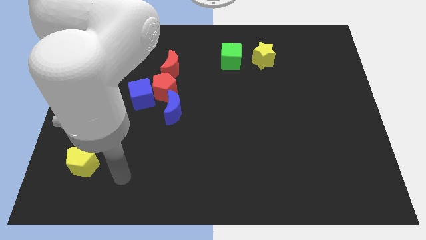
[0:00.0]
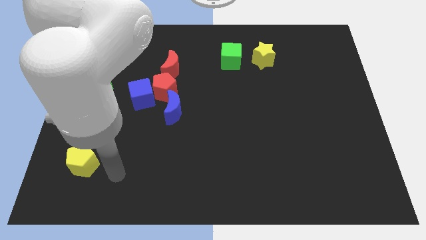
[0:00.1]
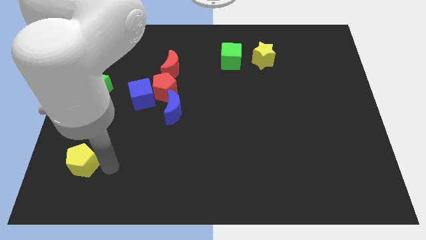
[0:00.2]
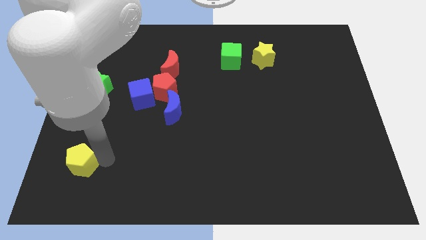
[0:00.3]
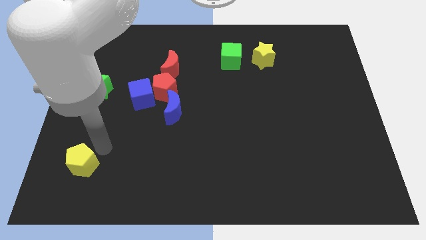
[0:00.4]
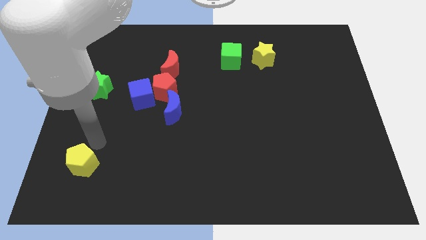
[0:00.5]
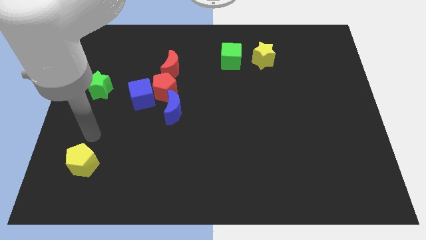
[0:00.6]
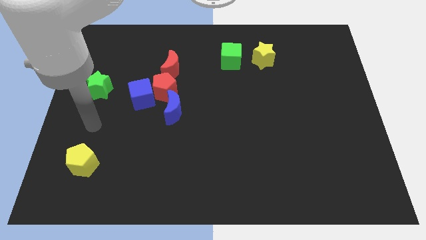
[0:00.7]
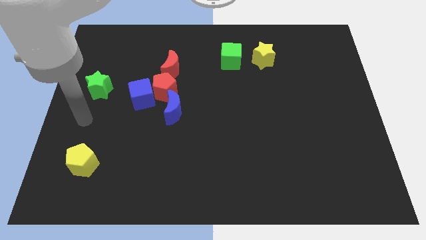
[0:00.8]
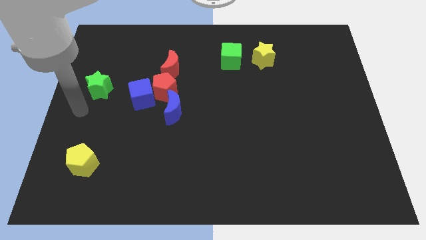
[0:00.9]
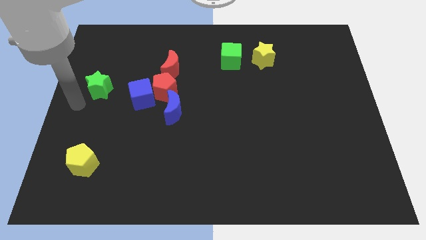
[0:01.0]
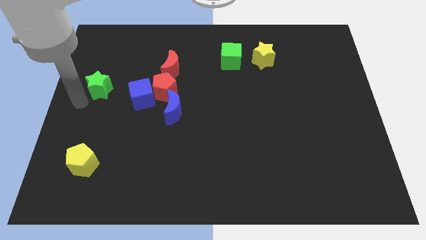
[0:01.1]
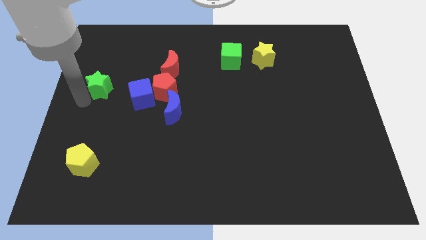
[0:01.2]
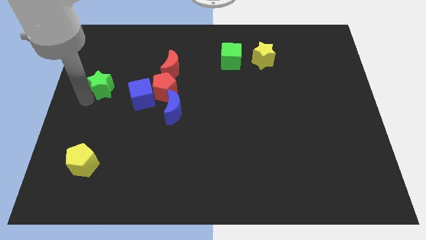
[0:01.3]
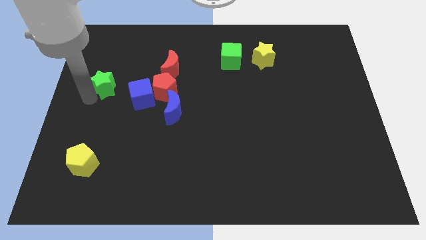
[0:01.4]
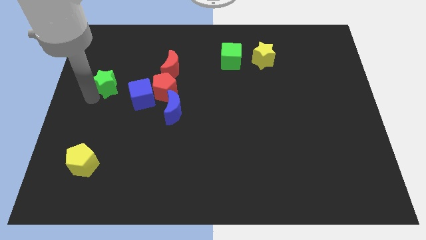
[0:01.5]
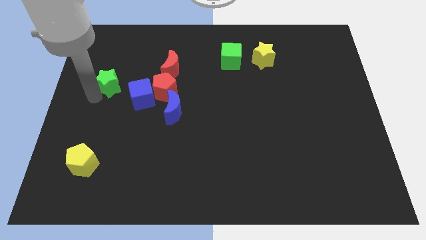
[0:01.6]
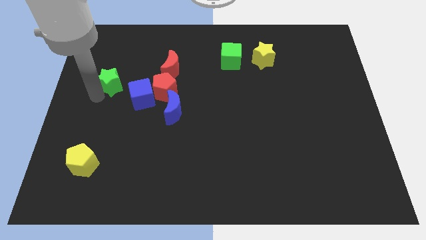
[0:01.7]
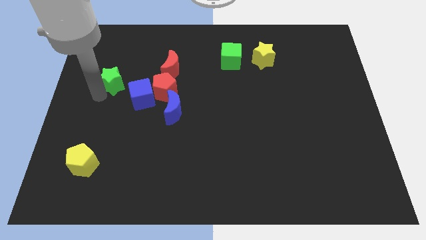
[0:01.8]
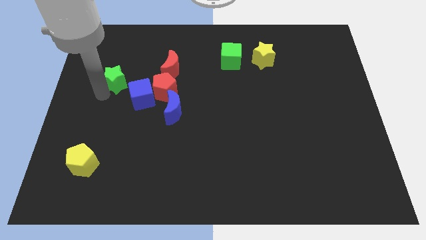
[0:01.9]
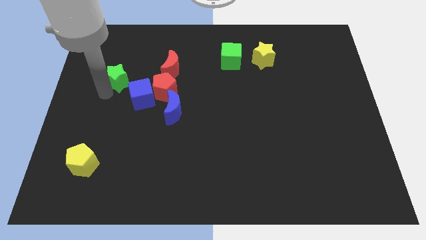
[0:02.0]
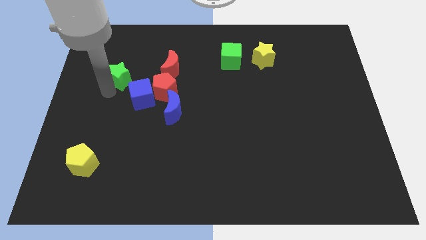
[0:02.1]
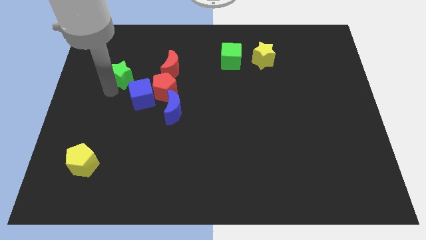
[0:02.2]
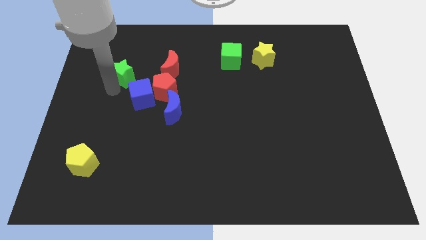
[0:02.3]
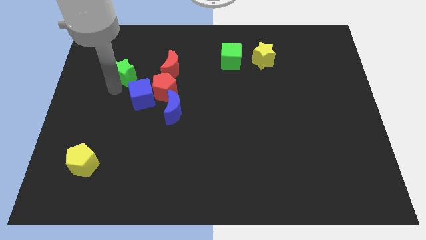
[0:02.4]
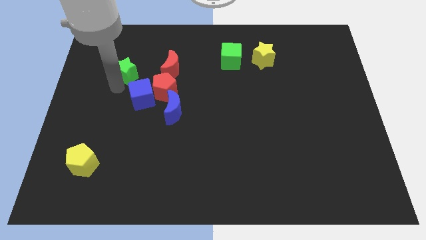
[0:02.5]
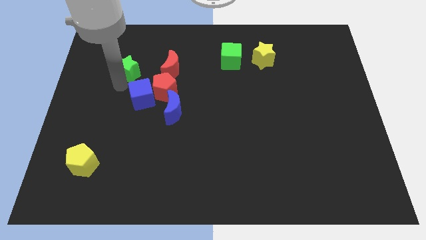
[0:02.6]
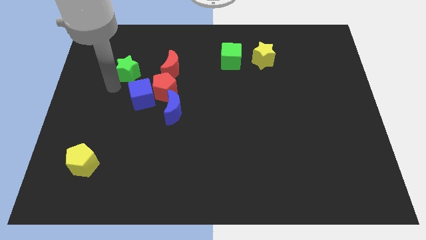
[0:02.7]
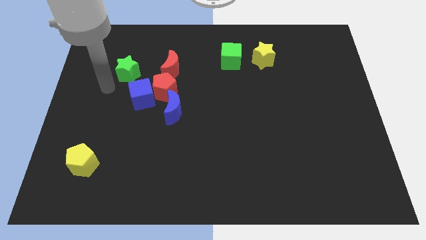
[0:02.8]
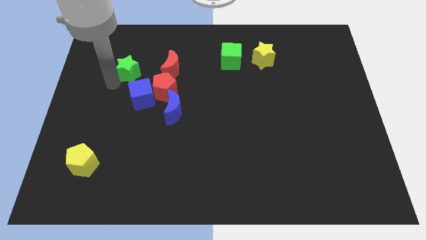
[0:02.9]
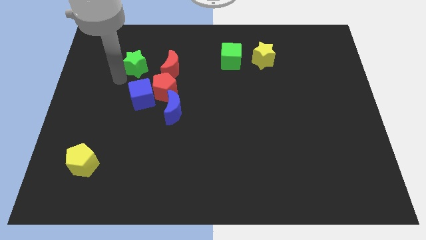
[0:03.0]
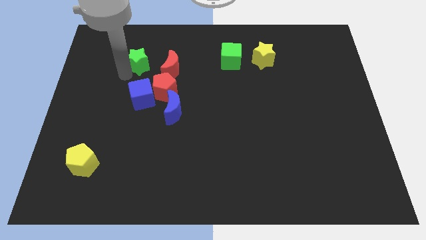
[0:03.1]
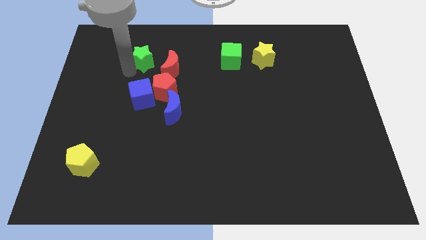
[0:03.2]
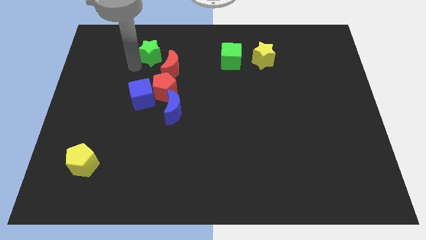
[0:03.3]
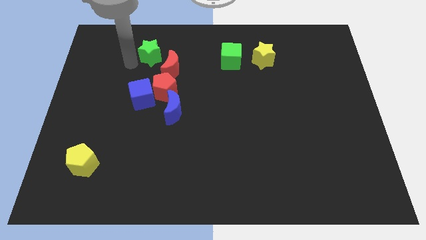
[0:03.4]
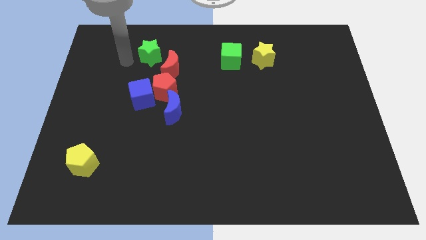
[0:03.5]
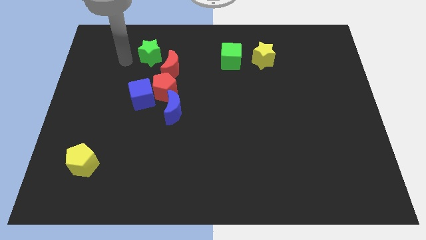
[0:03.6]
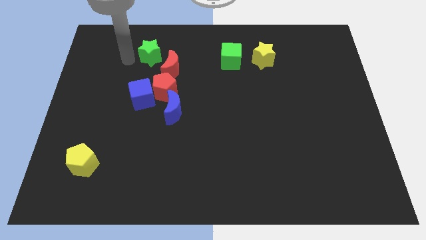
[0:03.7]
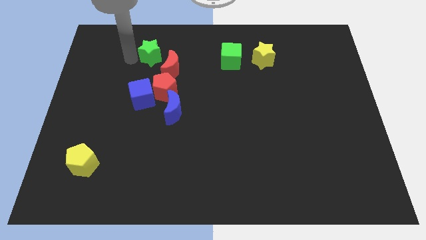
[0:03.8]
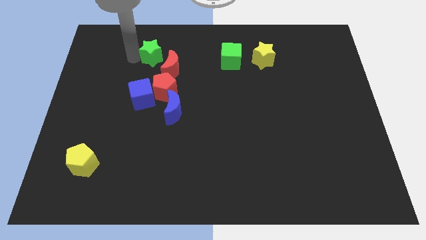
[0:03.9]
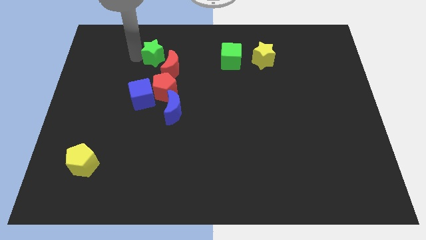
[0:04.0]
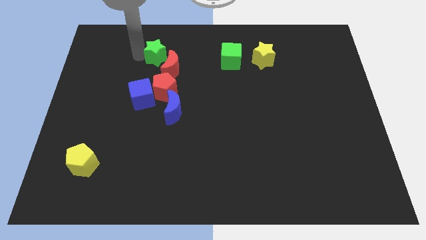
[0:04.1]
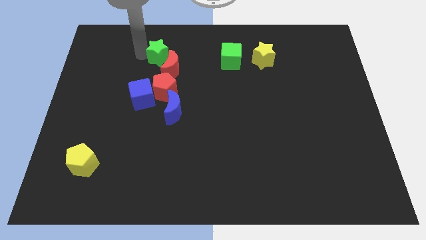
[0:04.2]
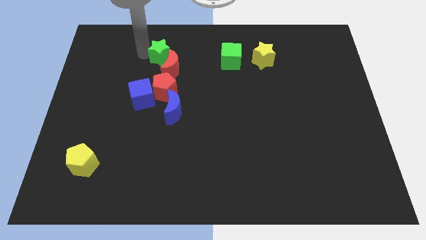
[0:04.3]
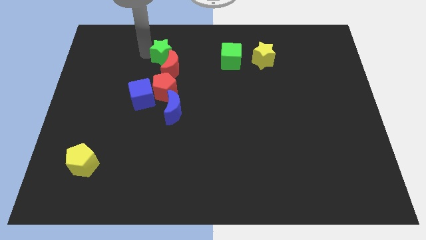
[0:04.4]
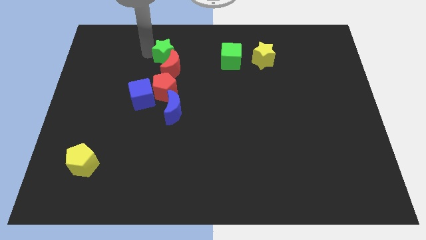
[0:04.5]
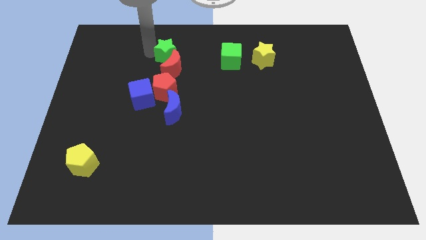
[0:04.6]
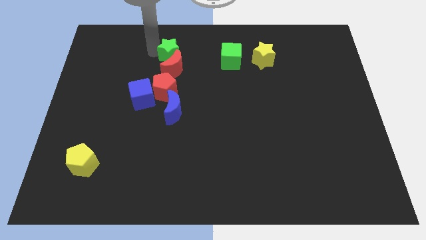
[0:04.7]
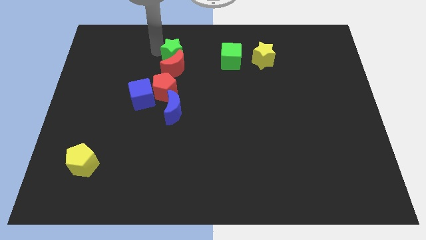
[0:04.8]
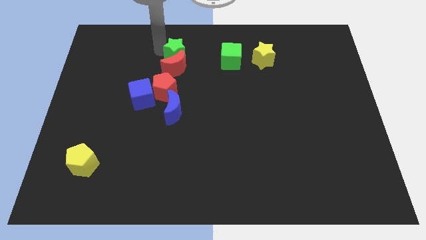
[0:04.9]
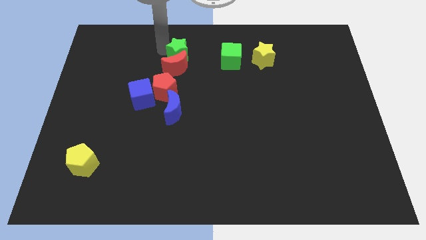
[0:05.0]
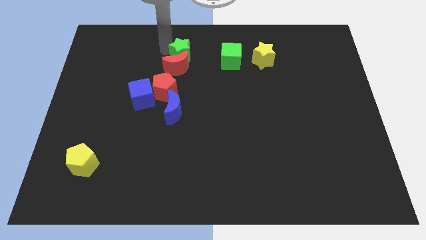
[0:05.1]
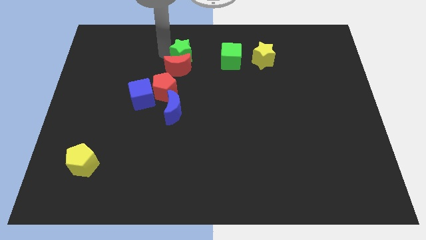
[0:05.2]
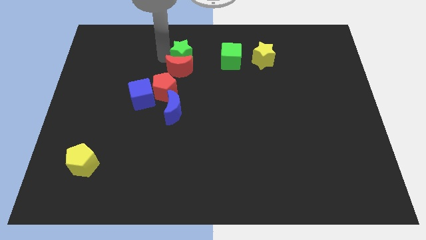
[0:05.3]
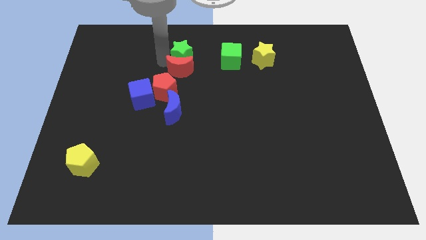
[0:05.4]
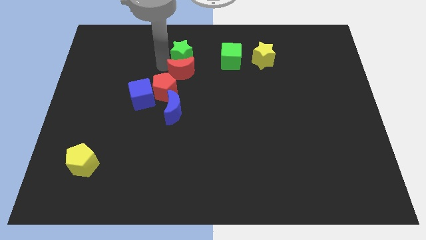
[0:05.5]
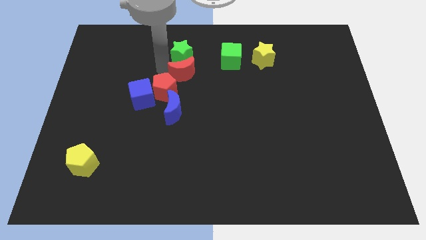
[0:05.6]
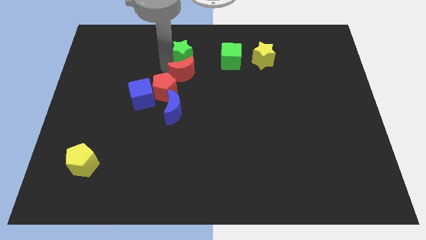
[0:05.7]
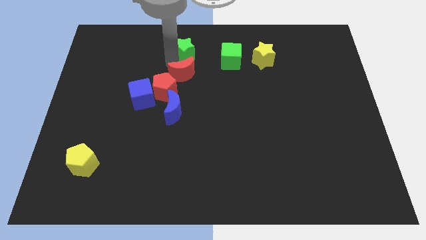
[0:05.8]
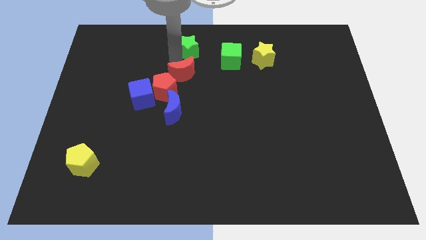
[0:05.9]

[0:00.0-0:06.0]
push the green star to the towards your base

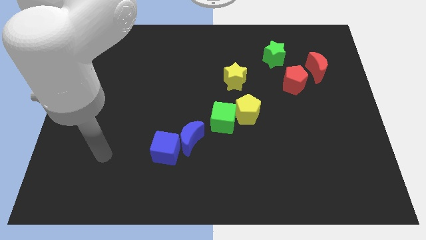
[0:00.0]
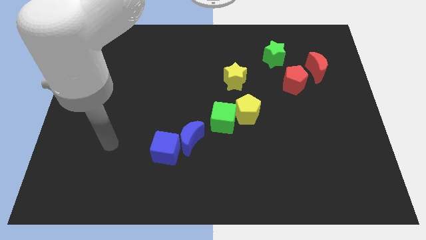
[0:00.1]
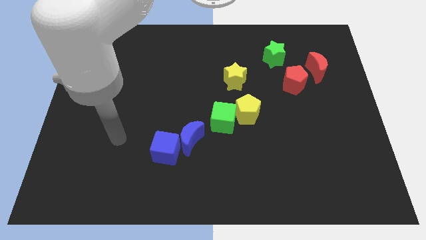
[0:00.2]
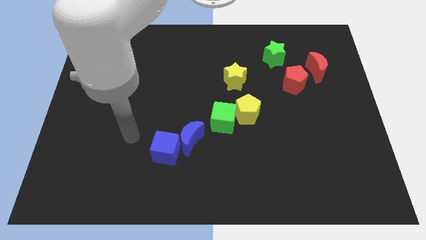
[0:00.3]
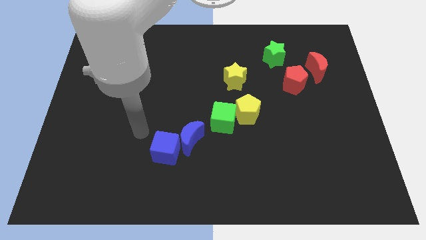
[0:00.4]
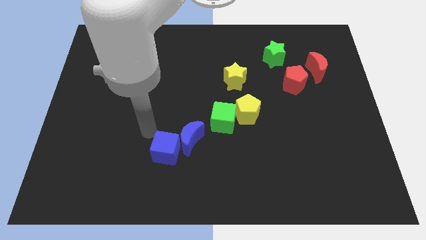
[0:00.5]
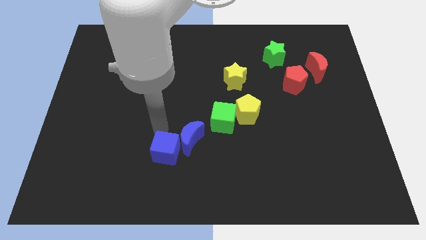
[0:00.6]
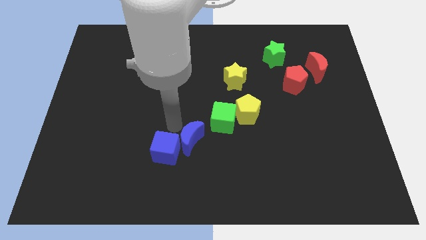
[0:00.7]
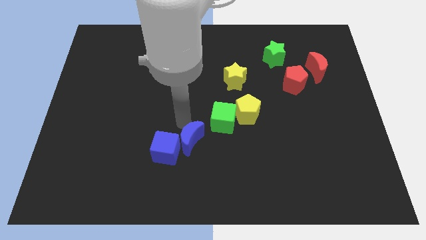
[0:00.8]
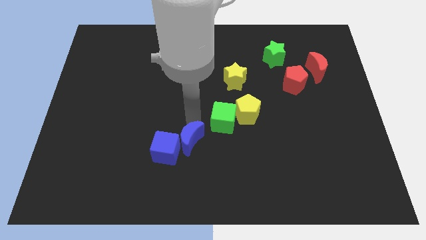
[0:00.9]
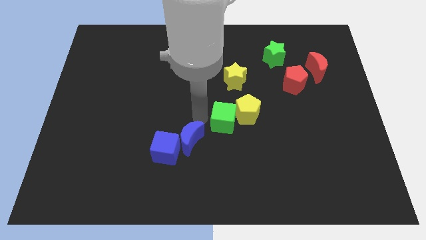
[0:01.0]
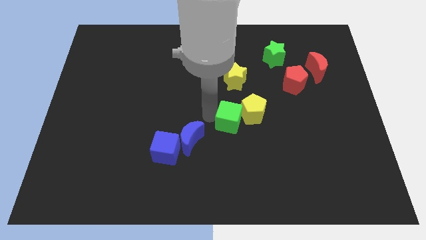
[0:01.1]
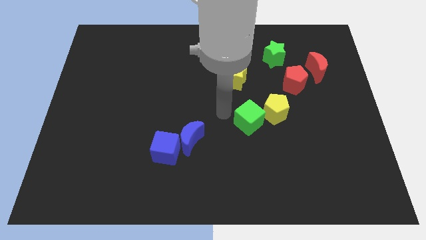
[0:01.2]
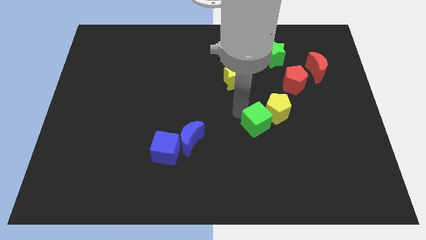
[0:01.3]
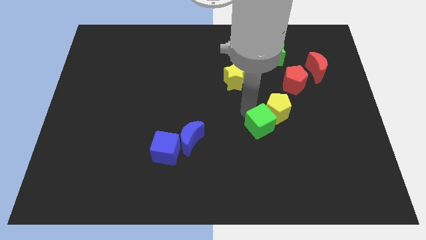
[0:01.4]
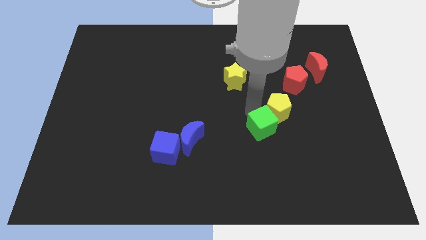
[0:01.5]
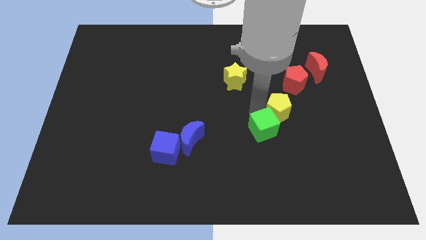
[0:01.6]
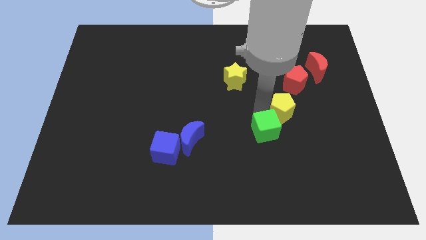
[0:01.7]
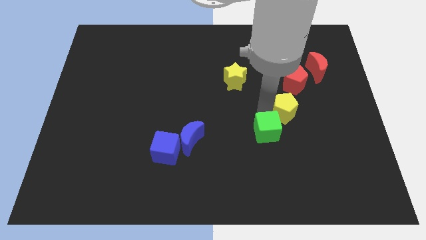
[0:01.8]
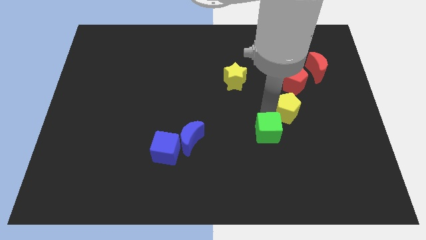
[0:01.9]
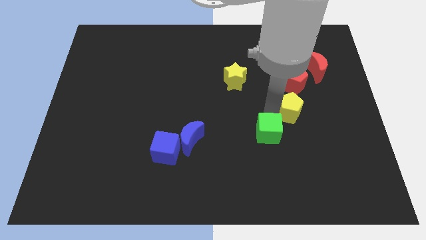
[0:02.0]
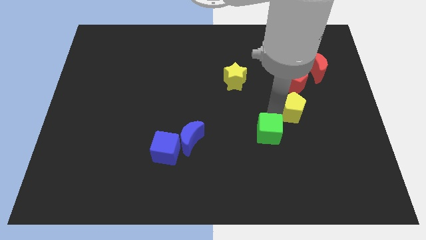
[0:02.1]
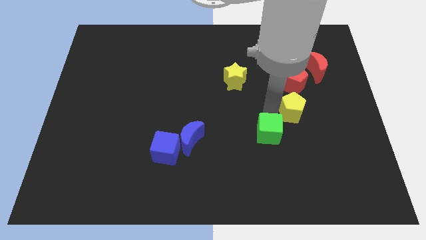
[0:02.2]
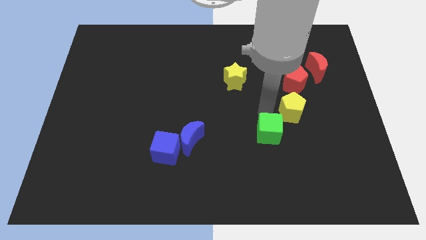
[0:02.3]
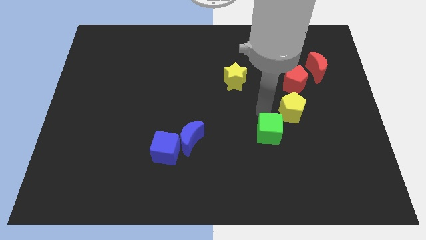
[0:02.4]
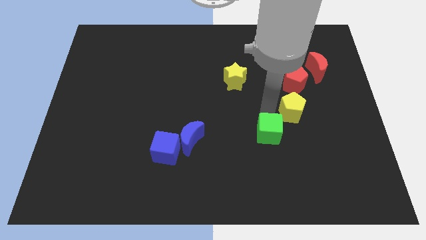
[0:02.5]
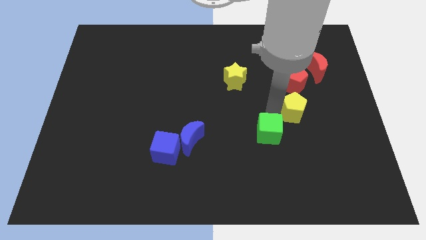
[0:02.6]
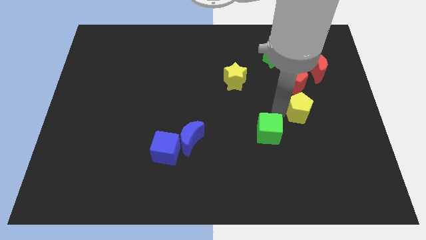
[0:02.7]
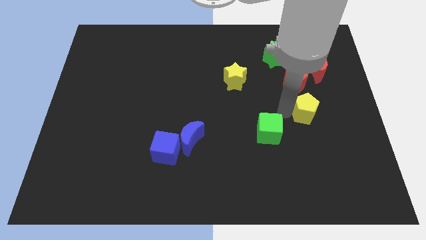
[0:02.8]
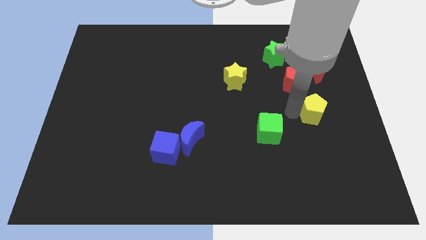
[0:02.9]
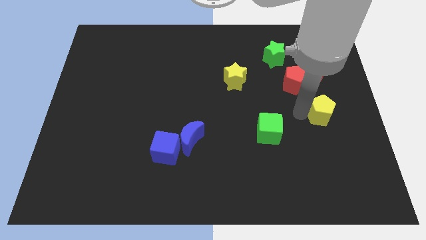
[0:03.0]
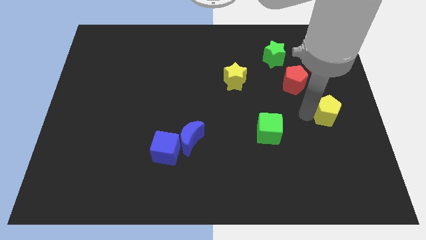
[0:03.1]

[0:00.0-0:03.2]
push the yellow pentagon to the right side of the board
